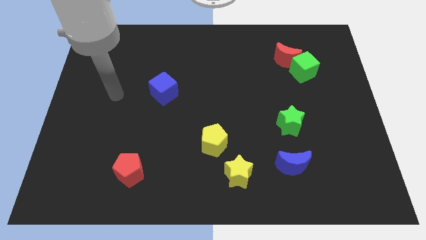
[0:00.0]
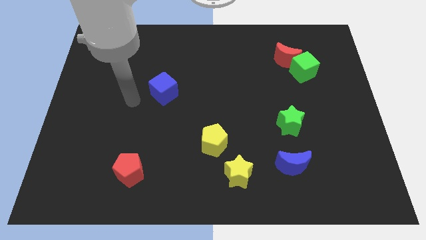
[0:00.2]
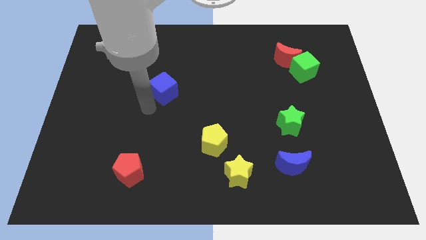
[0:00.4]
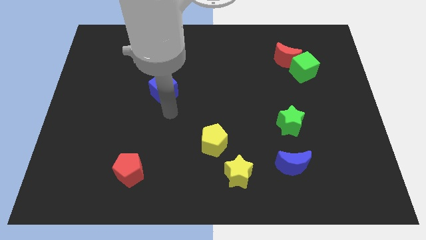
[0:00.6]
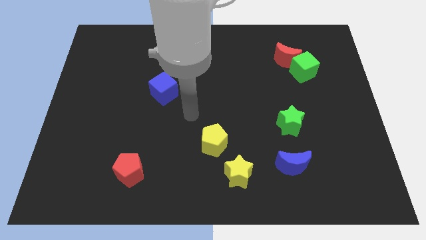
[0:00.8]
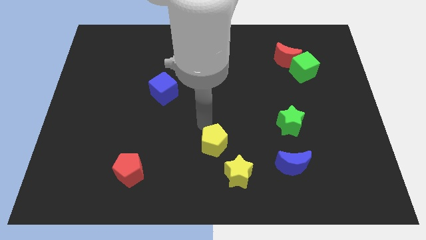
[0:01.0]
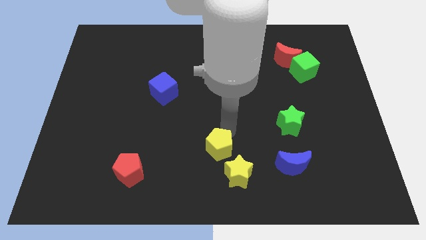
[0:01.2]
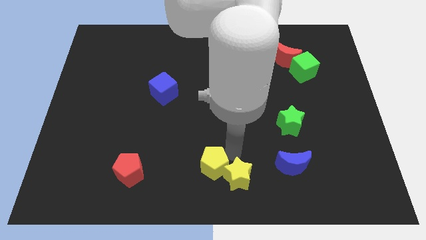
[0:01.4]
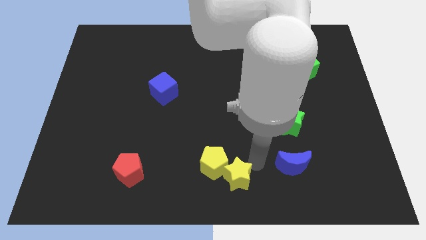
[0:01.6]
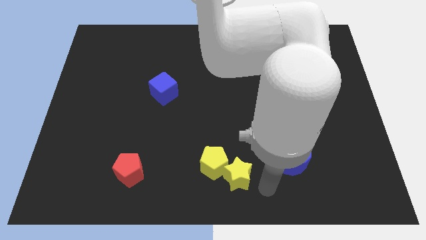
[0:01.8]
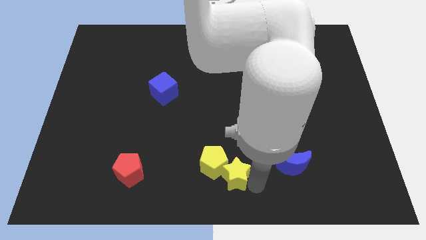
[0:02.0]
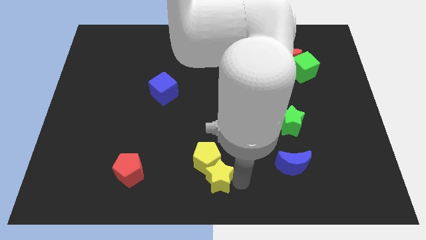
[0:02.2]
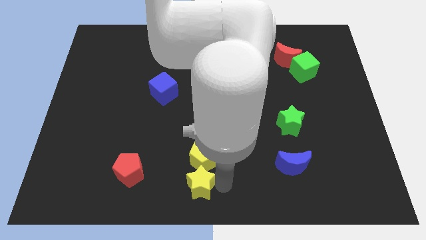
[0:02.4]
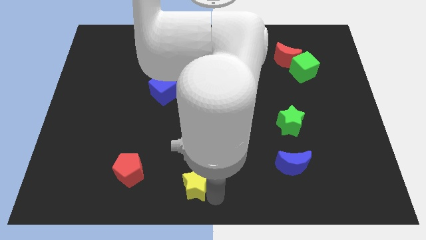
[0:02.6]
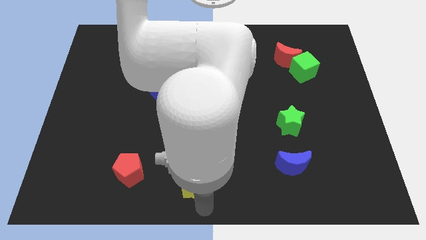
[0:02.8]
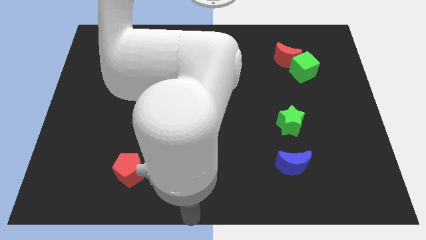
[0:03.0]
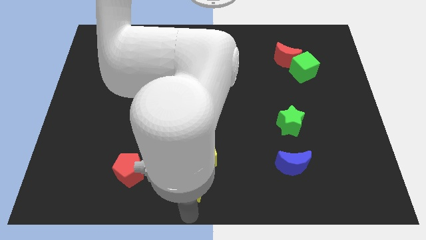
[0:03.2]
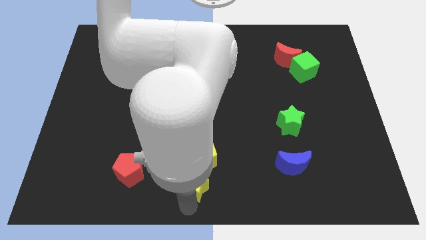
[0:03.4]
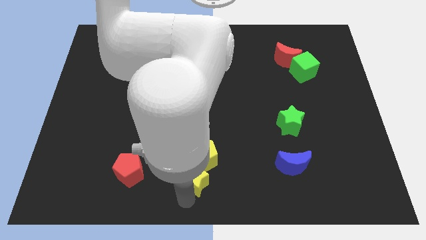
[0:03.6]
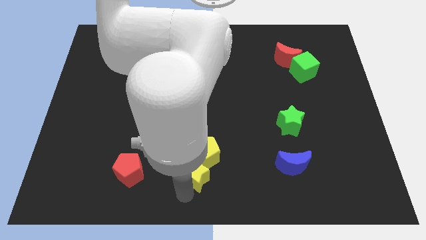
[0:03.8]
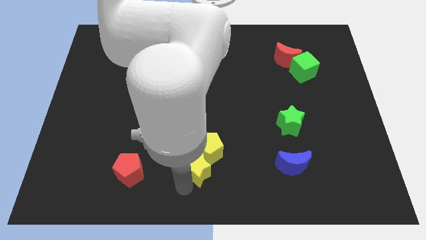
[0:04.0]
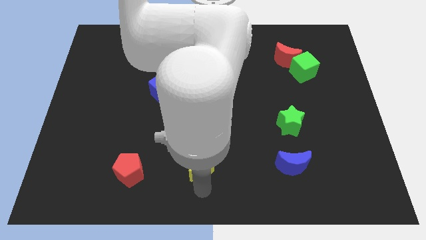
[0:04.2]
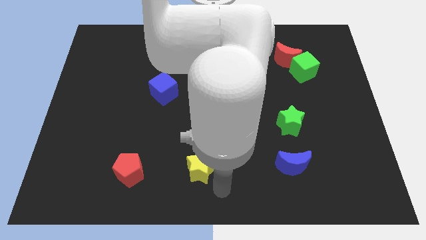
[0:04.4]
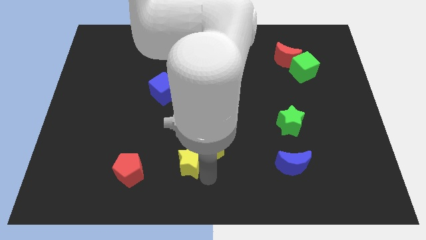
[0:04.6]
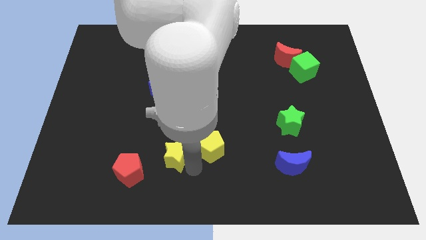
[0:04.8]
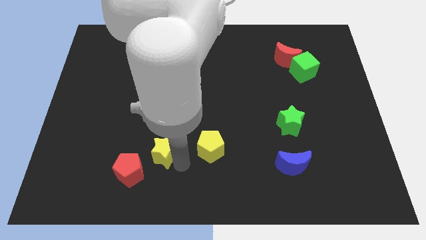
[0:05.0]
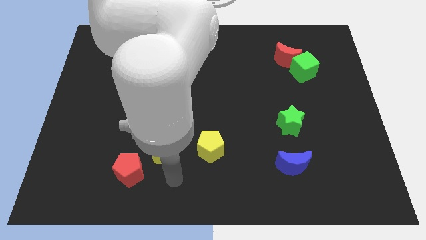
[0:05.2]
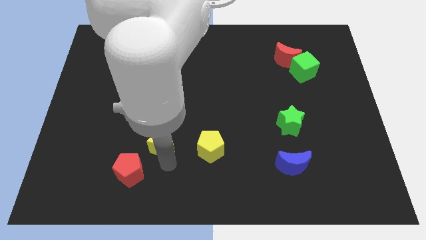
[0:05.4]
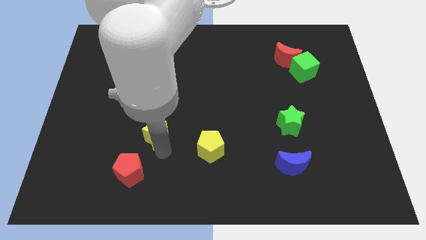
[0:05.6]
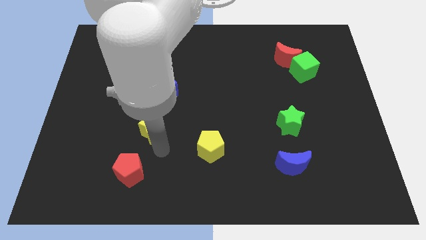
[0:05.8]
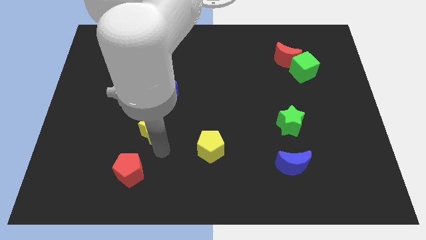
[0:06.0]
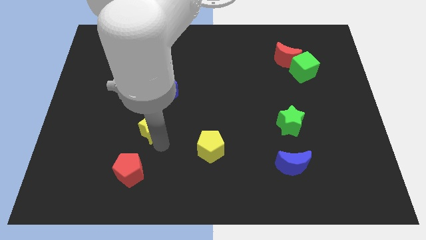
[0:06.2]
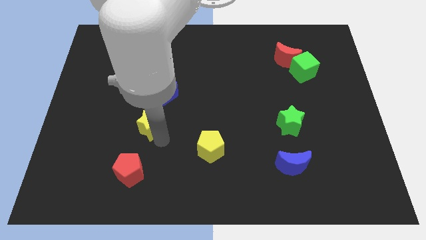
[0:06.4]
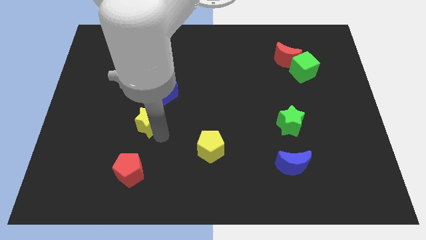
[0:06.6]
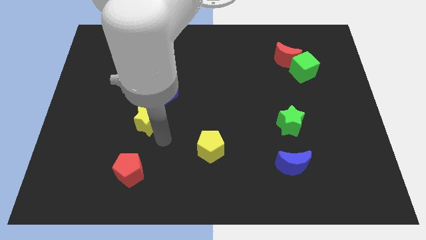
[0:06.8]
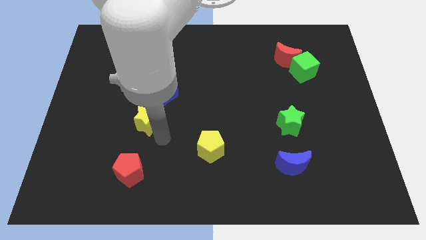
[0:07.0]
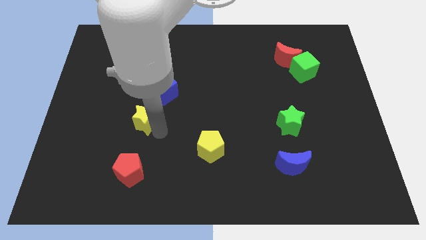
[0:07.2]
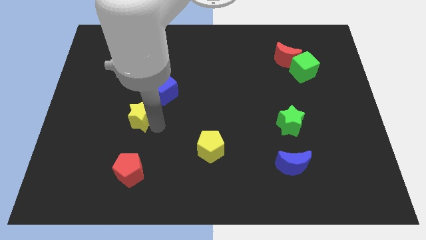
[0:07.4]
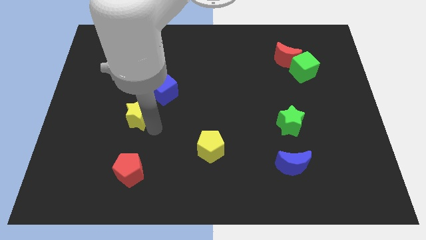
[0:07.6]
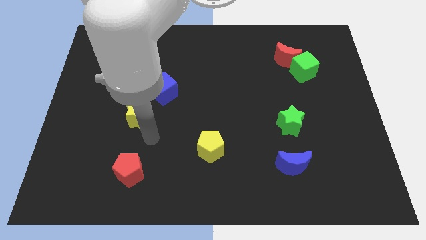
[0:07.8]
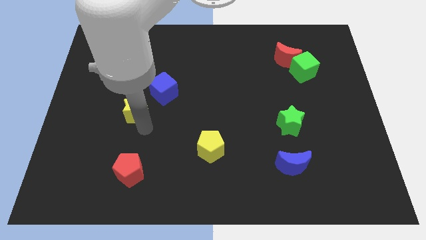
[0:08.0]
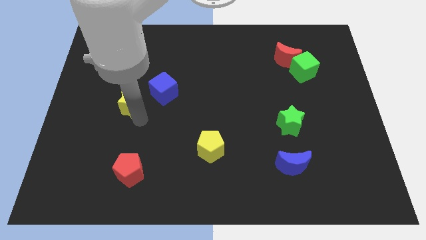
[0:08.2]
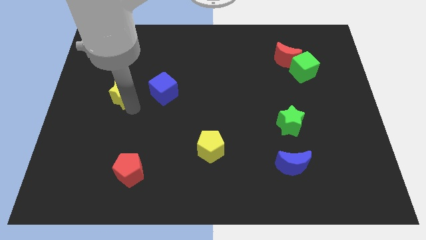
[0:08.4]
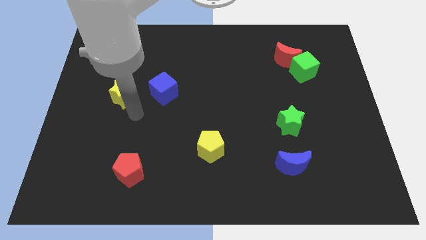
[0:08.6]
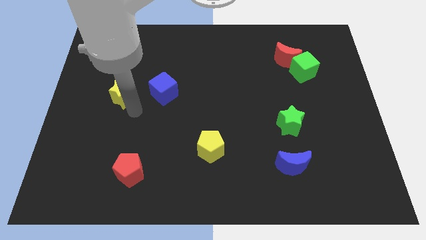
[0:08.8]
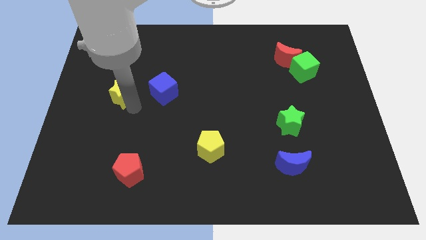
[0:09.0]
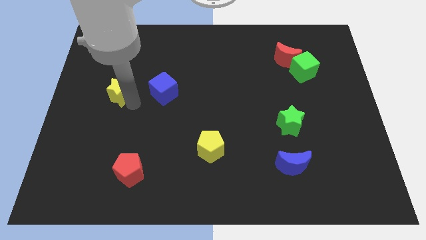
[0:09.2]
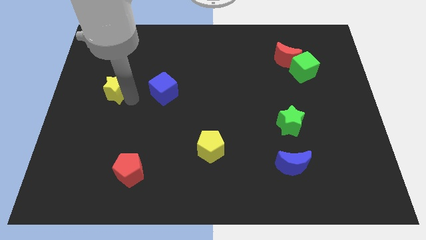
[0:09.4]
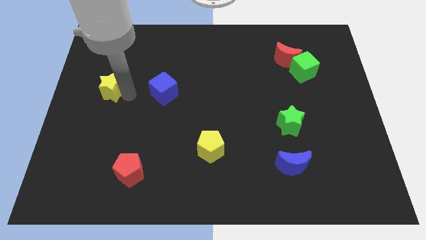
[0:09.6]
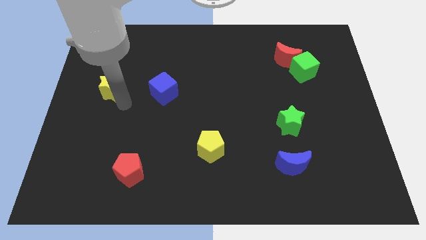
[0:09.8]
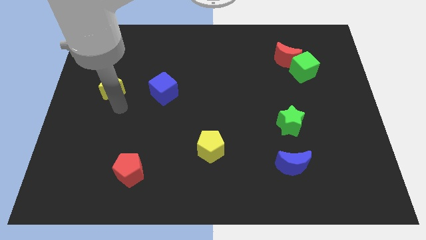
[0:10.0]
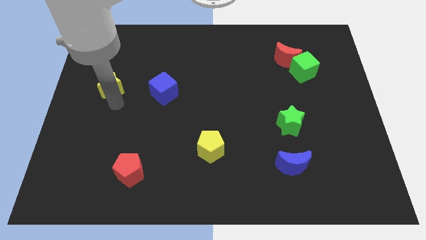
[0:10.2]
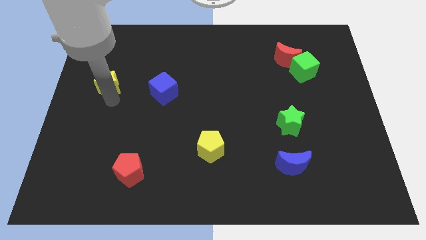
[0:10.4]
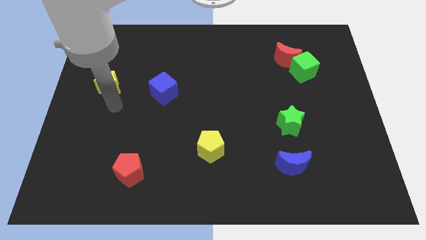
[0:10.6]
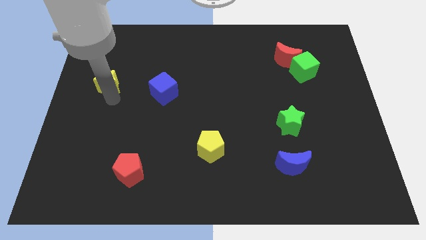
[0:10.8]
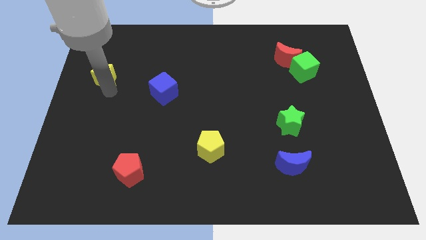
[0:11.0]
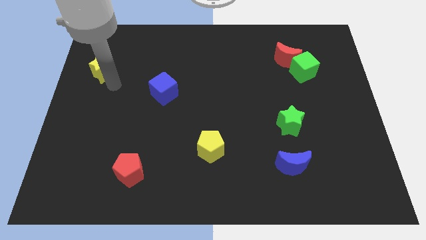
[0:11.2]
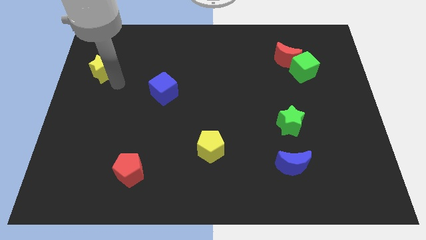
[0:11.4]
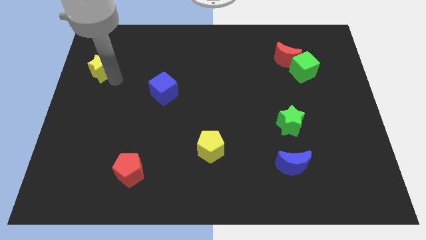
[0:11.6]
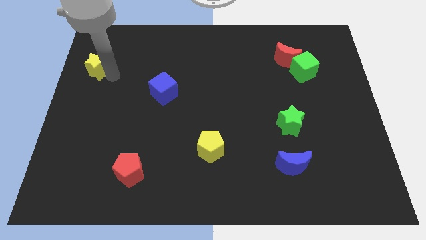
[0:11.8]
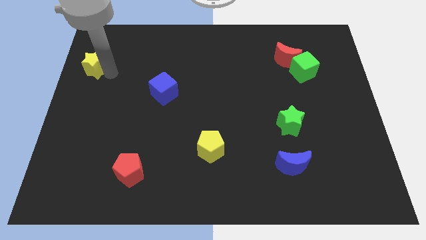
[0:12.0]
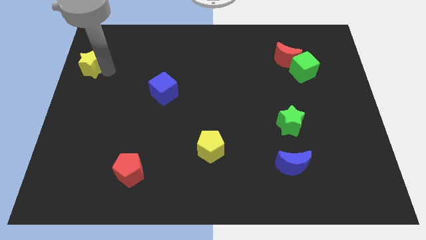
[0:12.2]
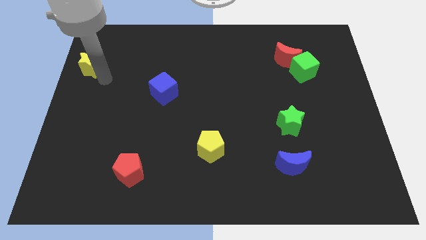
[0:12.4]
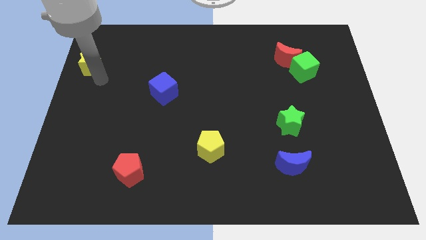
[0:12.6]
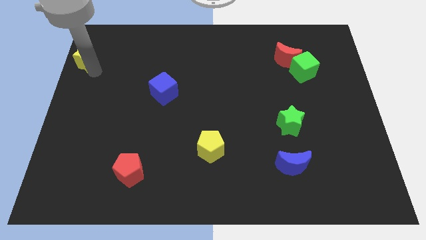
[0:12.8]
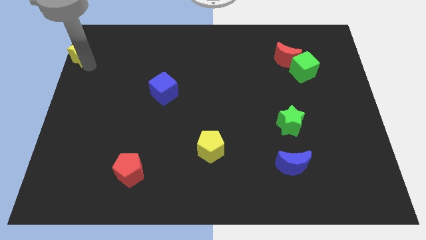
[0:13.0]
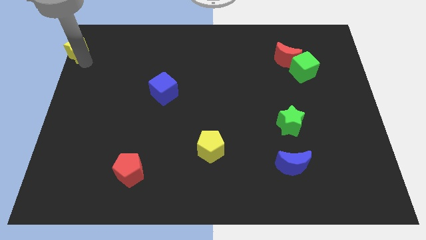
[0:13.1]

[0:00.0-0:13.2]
push the yellow star to the upper left corner

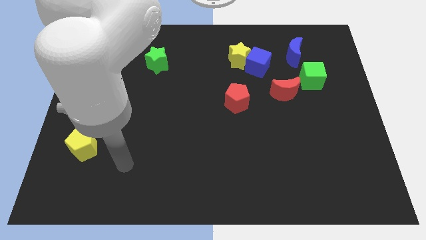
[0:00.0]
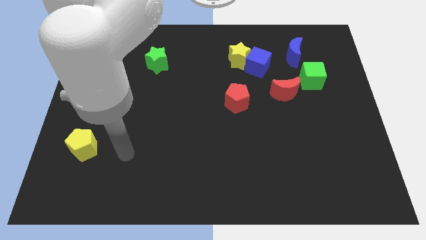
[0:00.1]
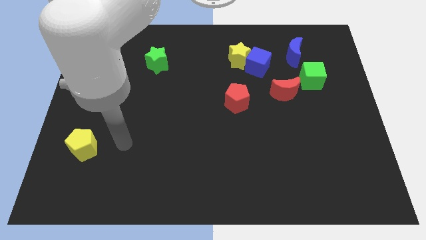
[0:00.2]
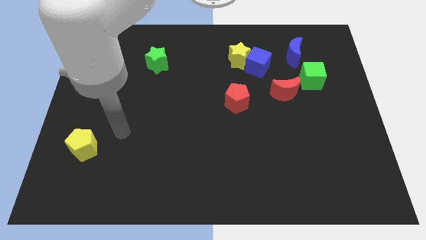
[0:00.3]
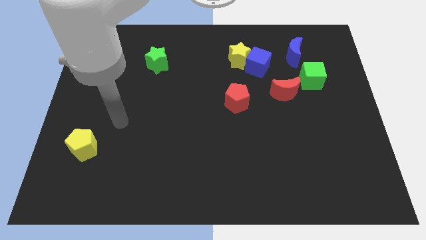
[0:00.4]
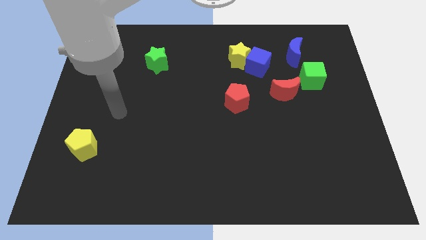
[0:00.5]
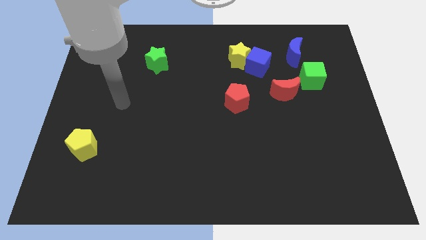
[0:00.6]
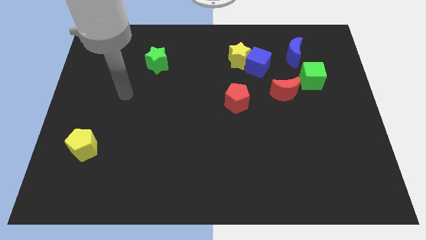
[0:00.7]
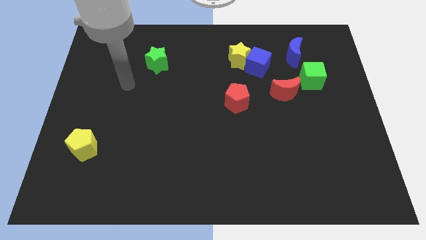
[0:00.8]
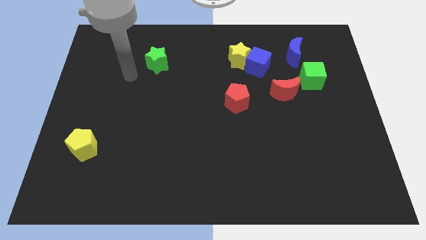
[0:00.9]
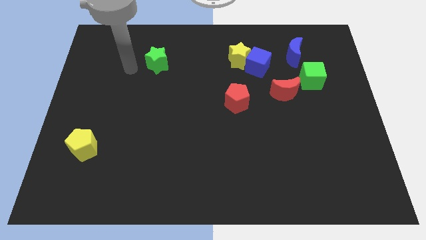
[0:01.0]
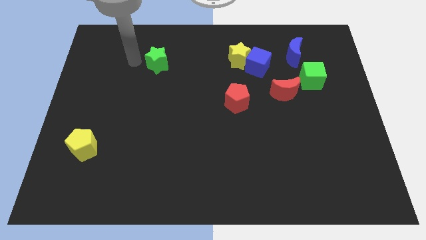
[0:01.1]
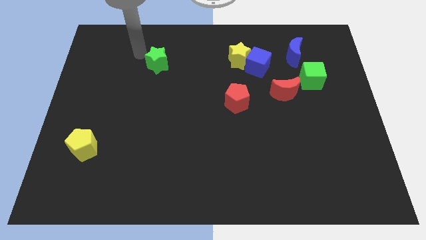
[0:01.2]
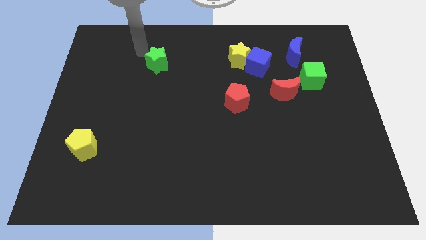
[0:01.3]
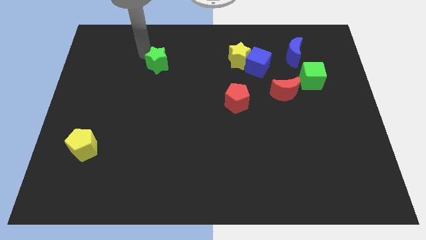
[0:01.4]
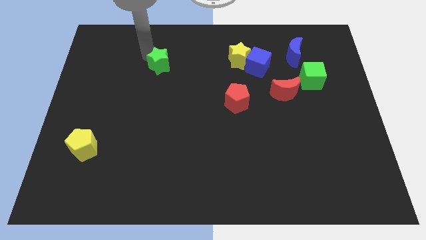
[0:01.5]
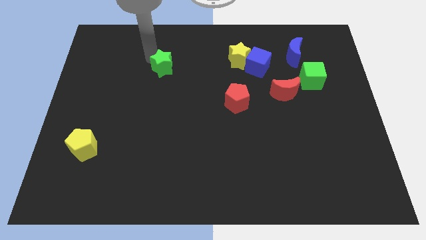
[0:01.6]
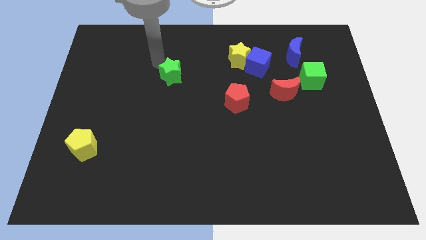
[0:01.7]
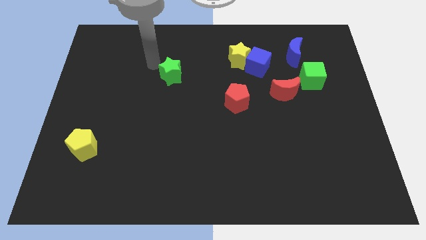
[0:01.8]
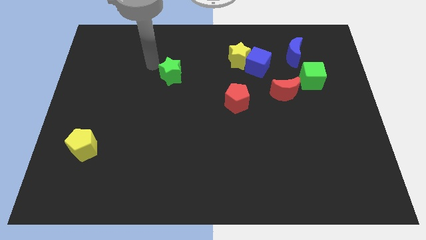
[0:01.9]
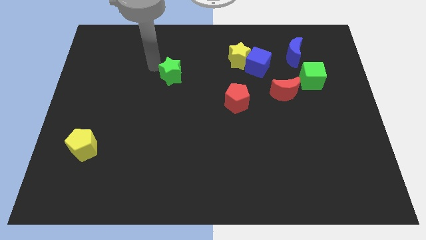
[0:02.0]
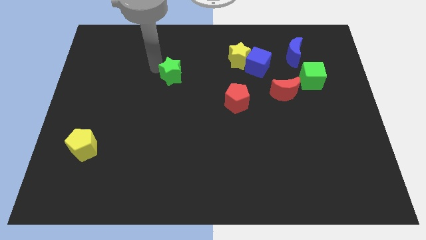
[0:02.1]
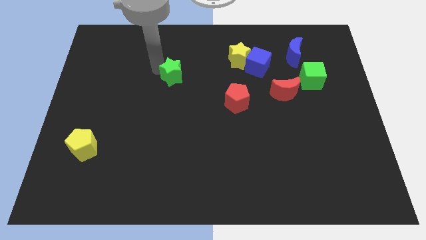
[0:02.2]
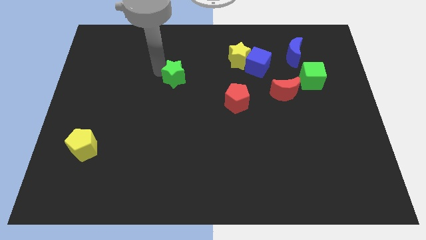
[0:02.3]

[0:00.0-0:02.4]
move the green star to the center
